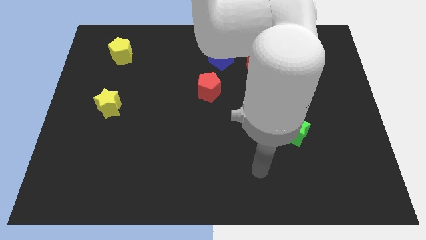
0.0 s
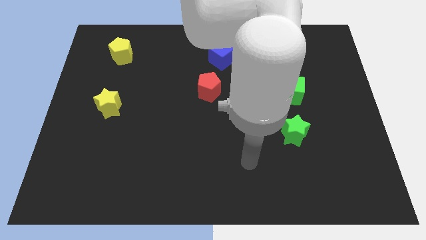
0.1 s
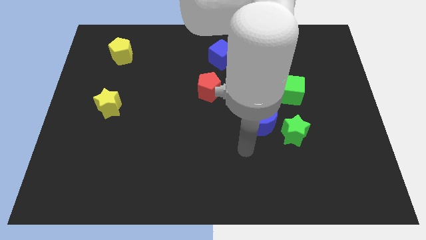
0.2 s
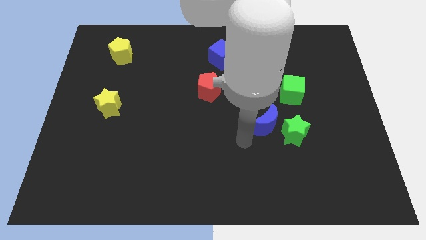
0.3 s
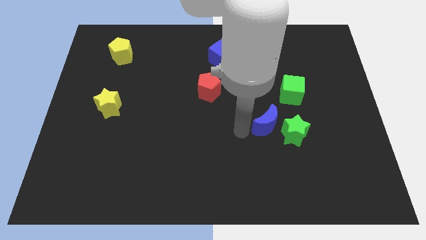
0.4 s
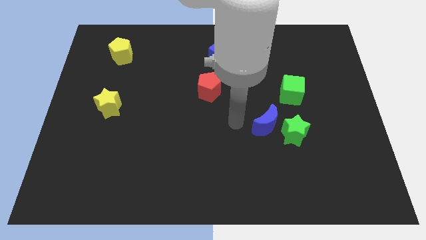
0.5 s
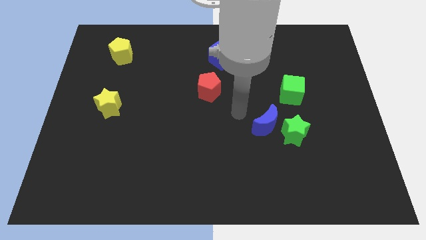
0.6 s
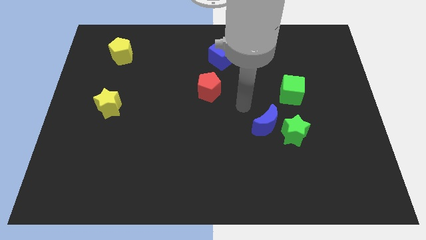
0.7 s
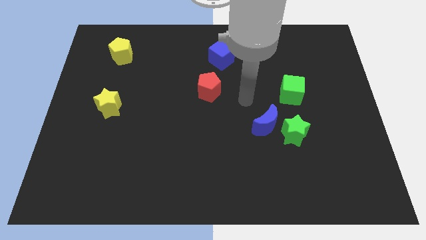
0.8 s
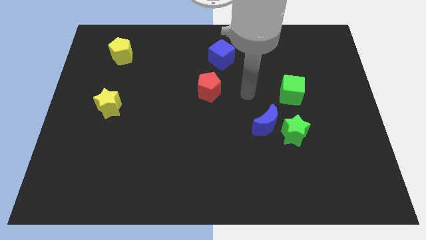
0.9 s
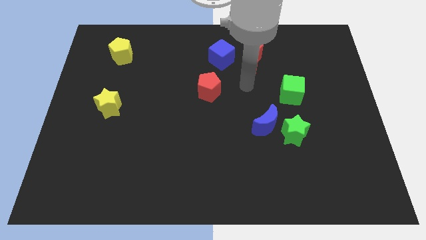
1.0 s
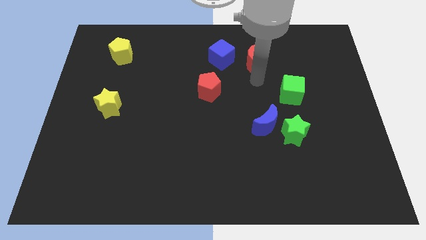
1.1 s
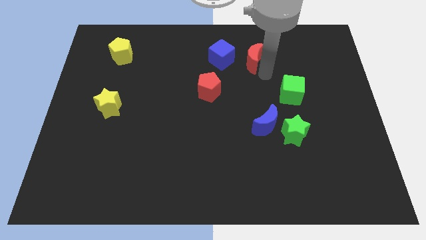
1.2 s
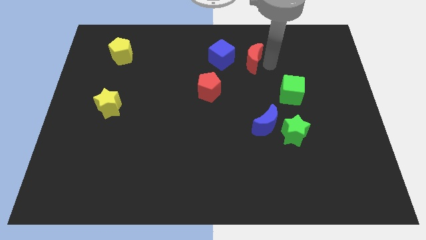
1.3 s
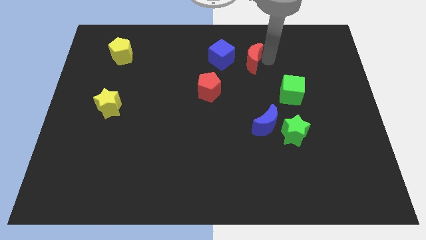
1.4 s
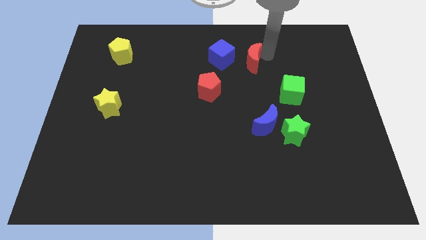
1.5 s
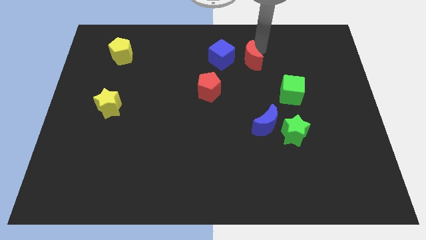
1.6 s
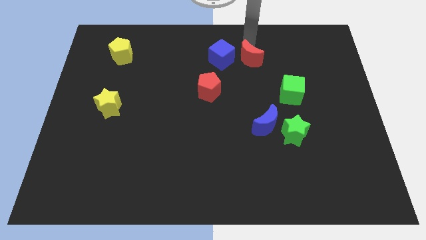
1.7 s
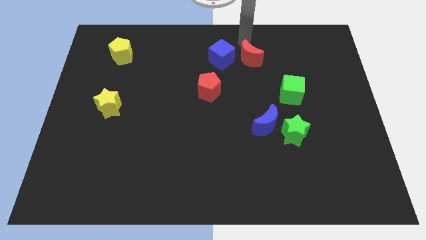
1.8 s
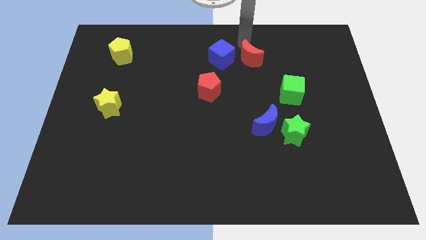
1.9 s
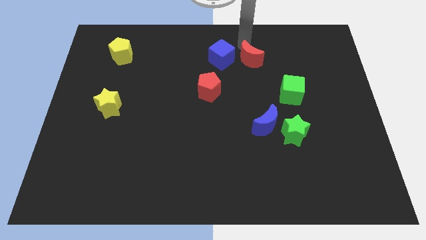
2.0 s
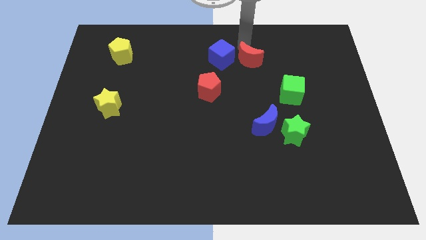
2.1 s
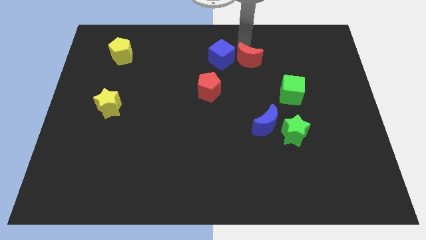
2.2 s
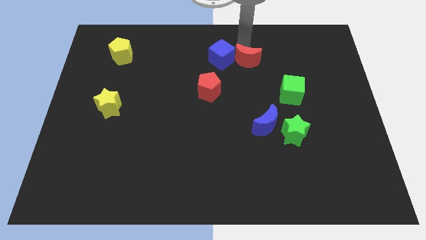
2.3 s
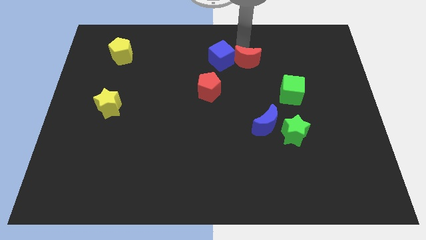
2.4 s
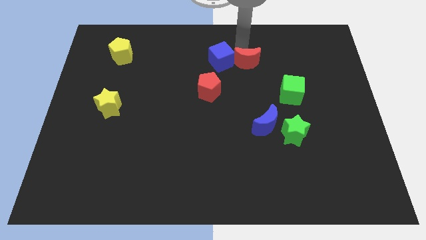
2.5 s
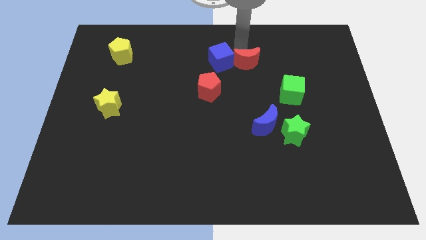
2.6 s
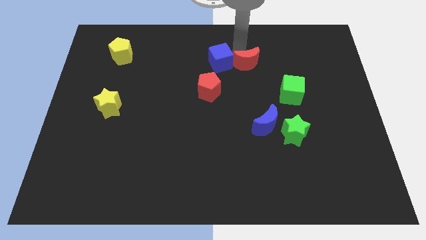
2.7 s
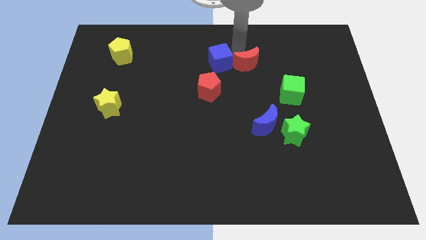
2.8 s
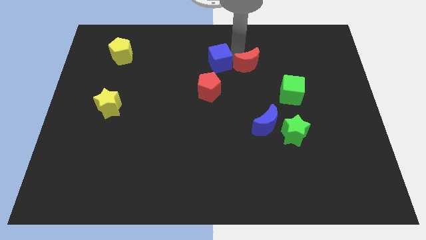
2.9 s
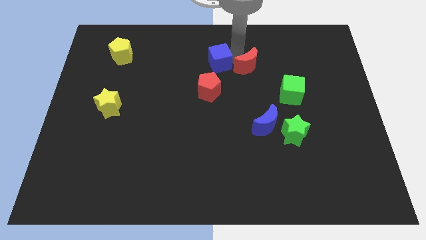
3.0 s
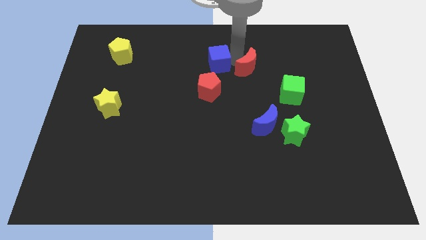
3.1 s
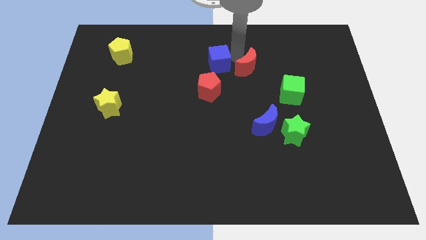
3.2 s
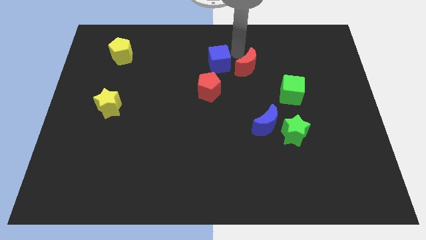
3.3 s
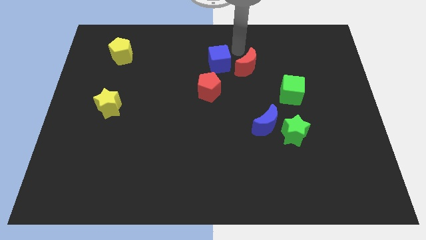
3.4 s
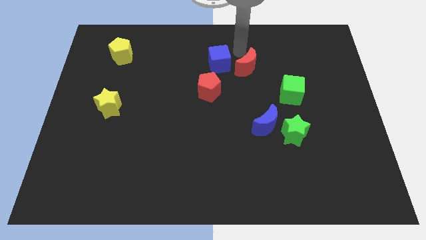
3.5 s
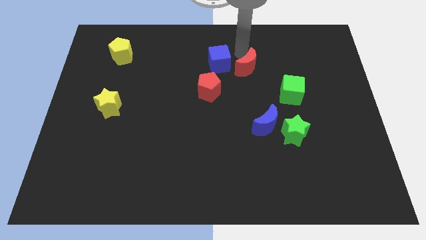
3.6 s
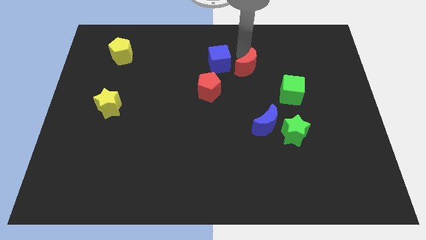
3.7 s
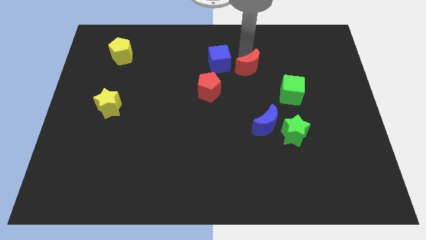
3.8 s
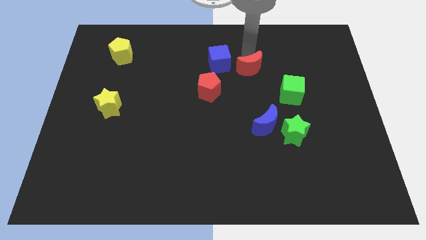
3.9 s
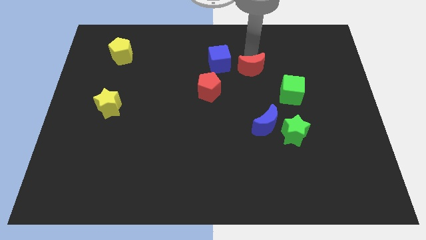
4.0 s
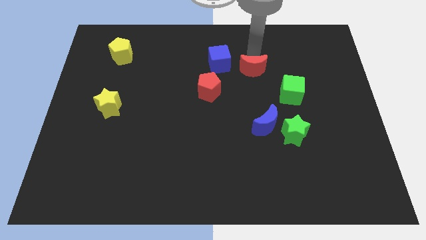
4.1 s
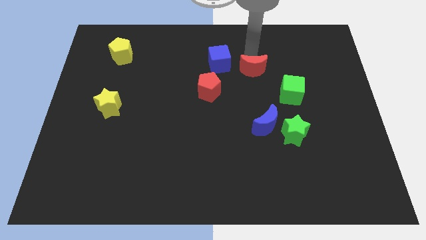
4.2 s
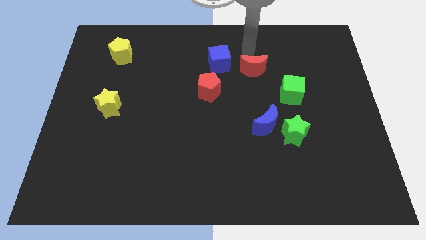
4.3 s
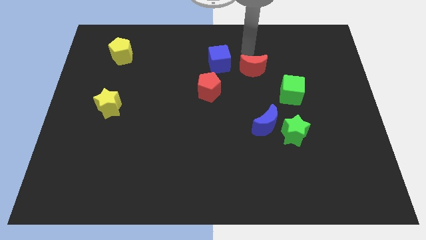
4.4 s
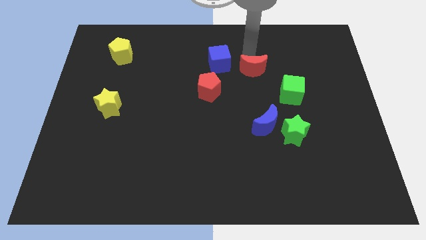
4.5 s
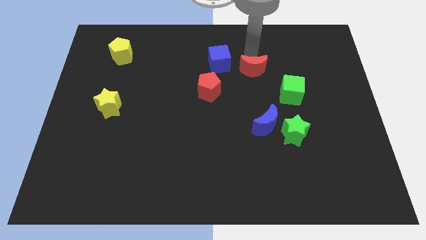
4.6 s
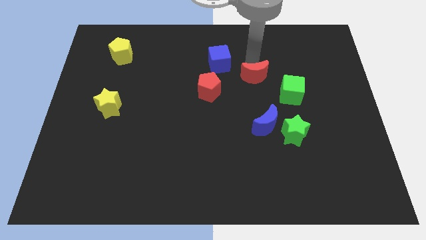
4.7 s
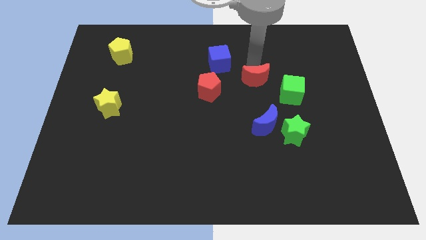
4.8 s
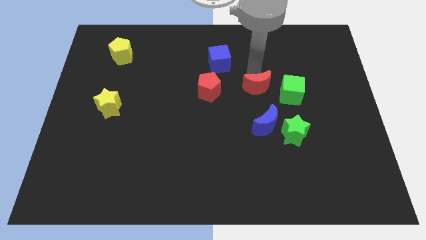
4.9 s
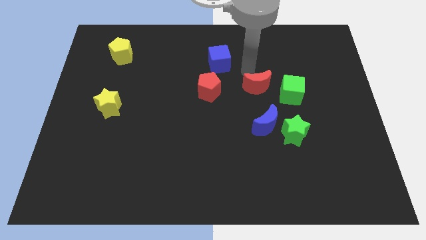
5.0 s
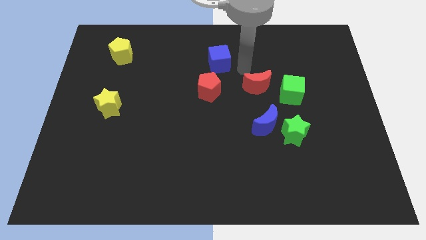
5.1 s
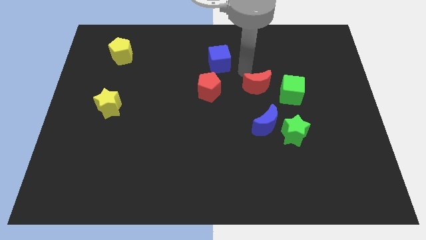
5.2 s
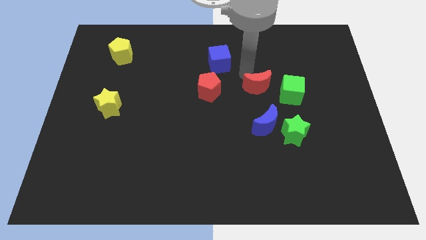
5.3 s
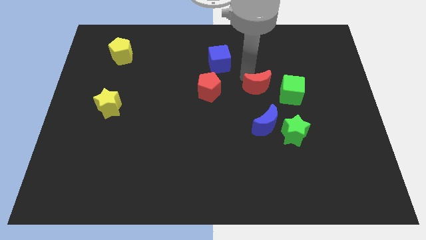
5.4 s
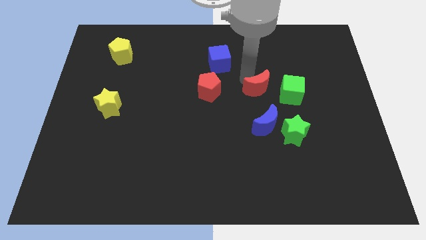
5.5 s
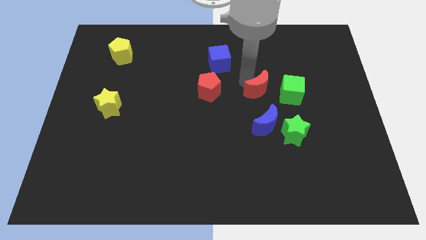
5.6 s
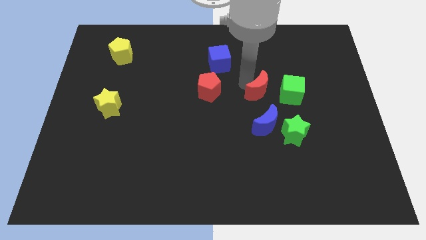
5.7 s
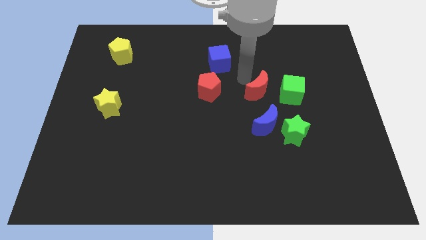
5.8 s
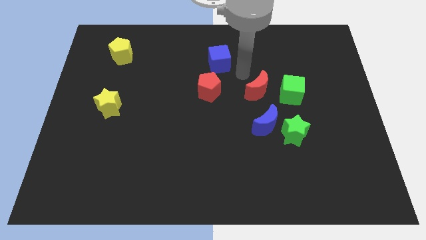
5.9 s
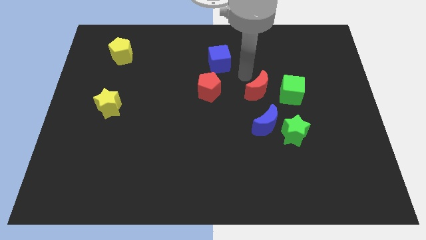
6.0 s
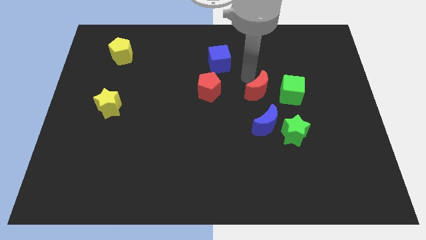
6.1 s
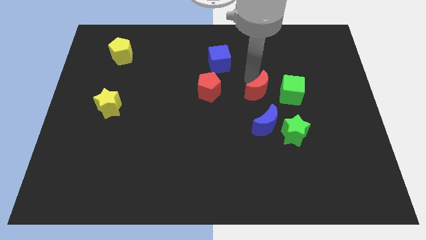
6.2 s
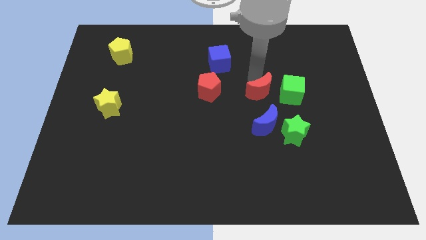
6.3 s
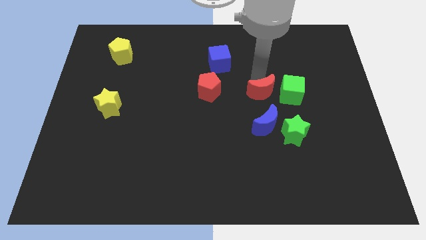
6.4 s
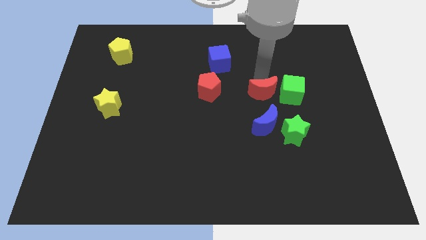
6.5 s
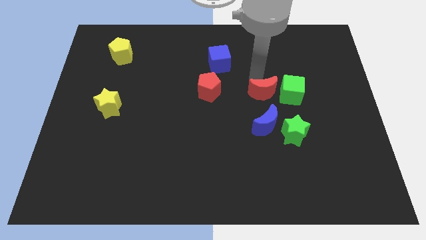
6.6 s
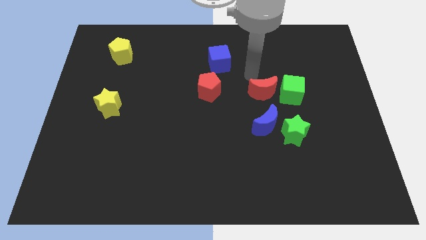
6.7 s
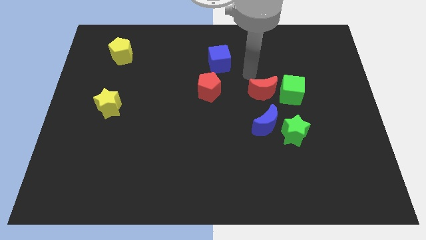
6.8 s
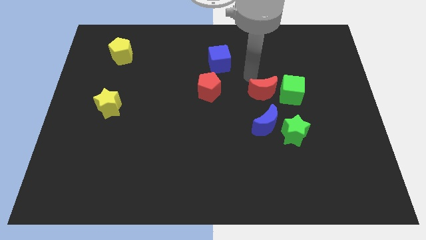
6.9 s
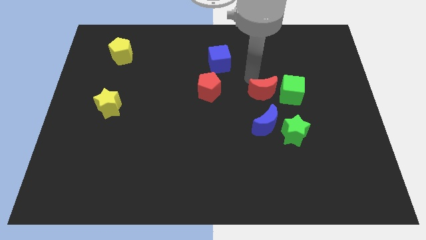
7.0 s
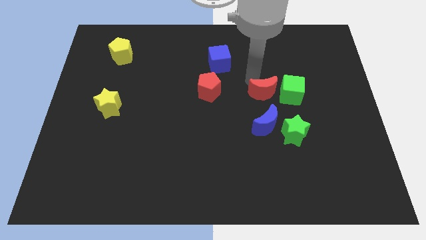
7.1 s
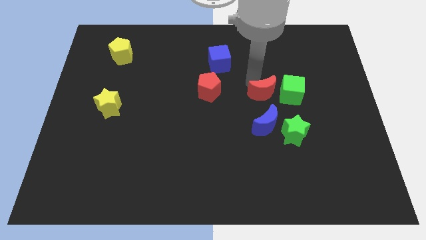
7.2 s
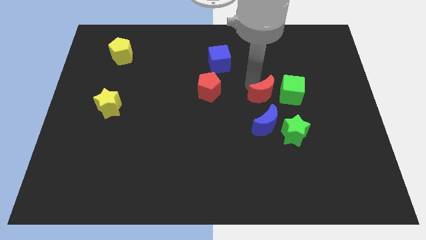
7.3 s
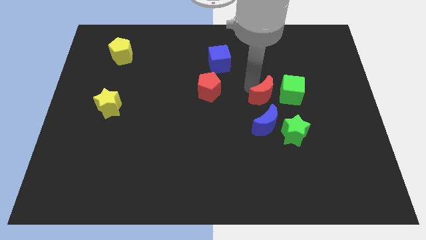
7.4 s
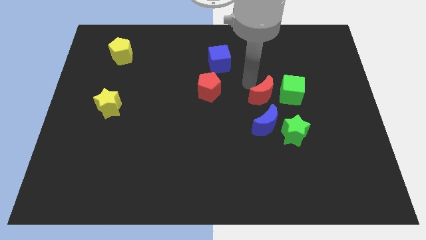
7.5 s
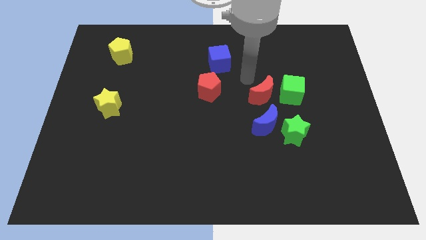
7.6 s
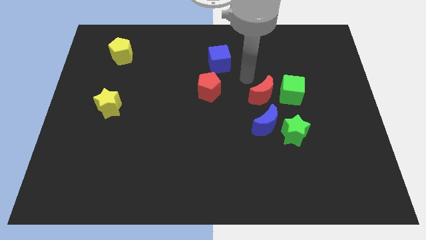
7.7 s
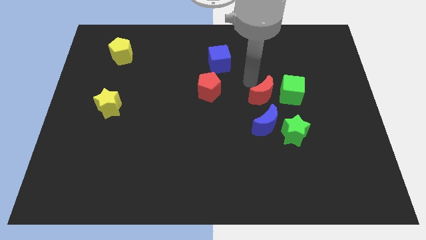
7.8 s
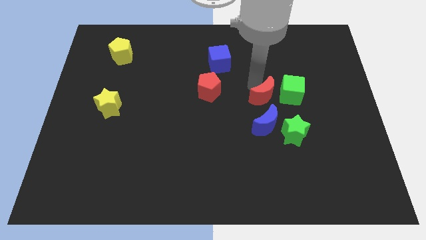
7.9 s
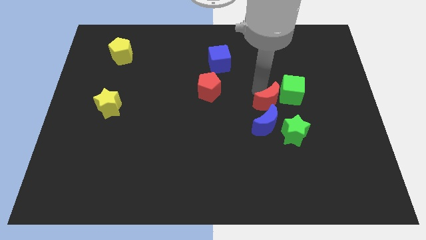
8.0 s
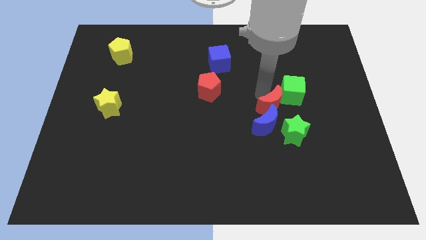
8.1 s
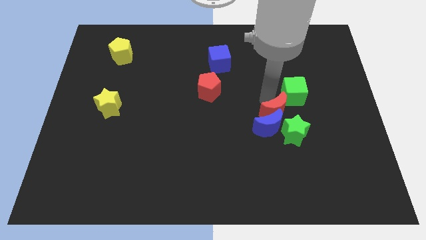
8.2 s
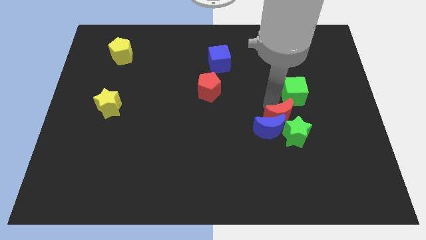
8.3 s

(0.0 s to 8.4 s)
push the red moon towards the green star

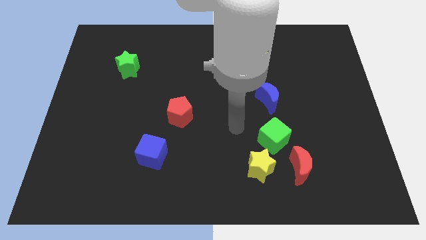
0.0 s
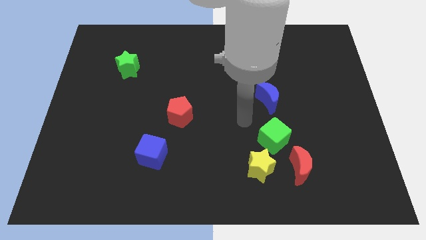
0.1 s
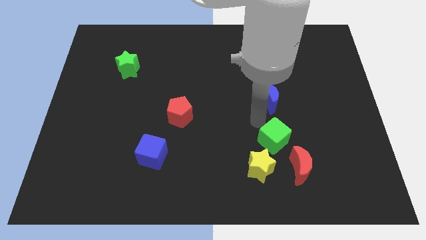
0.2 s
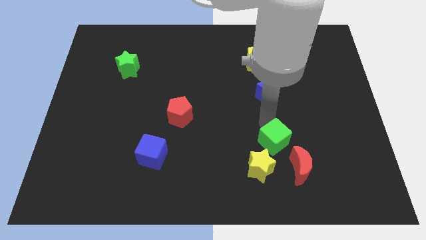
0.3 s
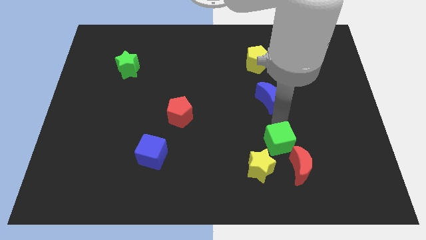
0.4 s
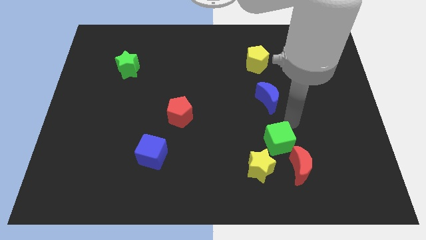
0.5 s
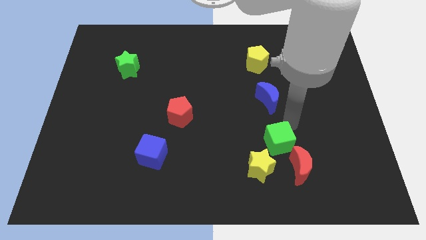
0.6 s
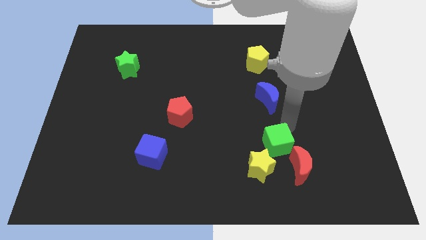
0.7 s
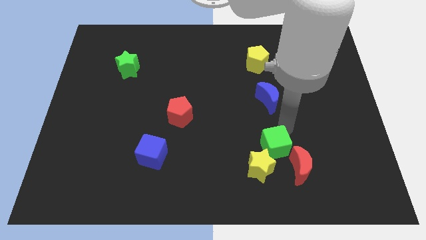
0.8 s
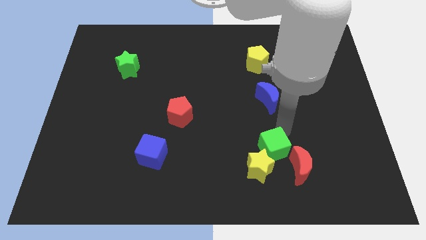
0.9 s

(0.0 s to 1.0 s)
move the green cube to the yellow star
